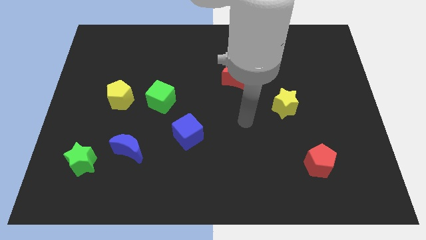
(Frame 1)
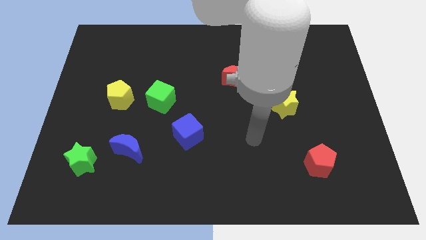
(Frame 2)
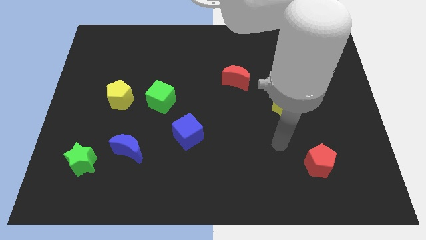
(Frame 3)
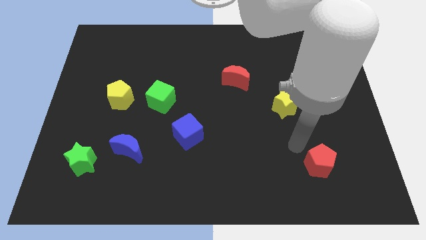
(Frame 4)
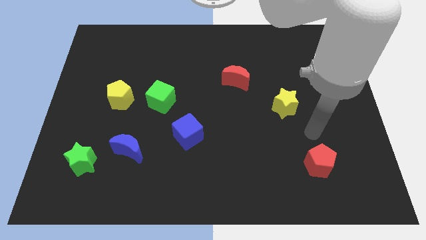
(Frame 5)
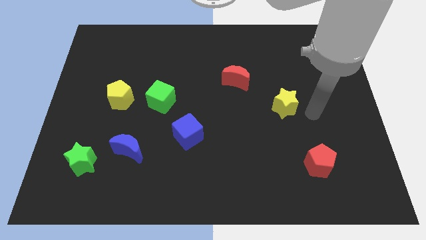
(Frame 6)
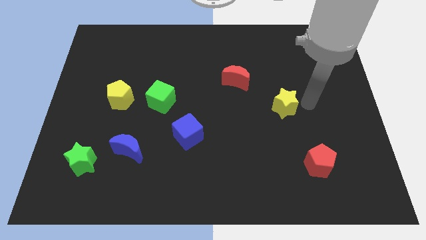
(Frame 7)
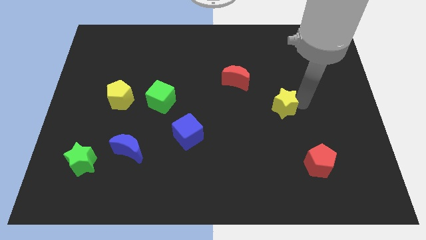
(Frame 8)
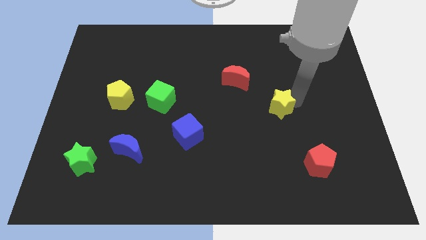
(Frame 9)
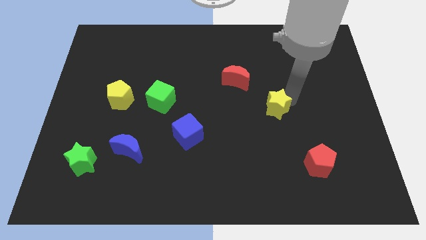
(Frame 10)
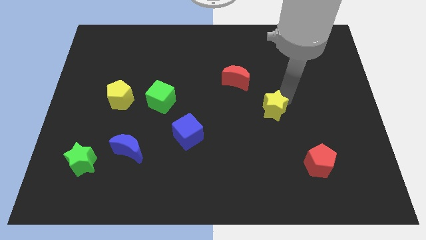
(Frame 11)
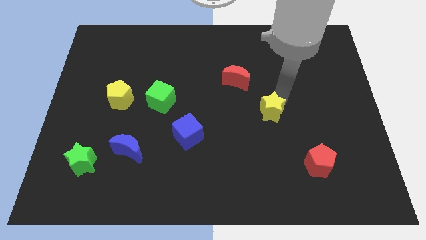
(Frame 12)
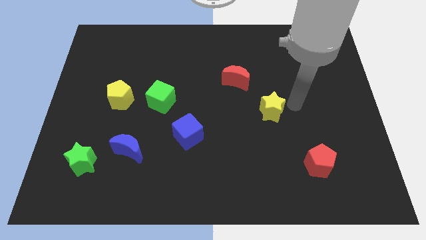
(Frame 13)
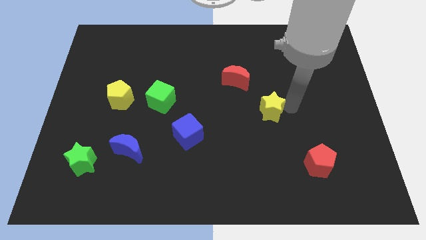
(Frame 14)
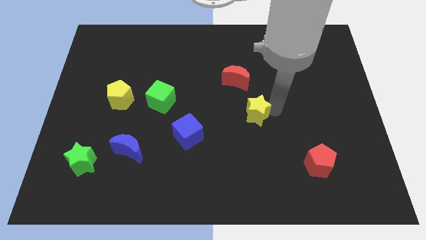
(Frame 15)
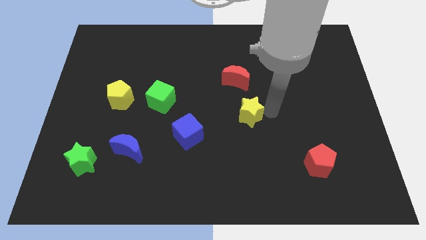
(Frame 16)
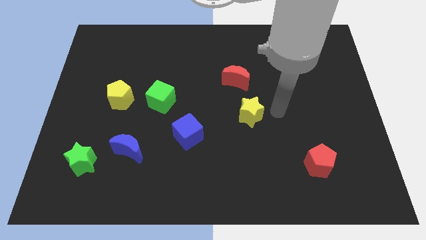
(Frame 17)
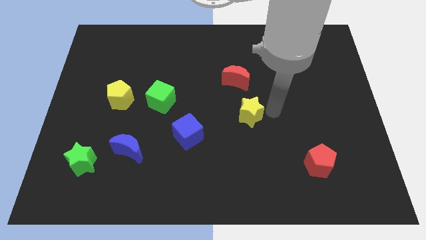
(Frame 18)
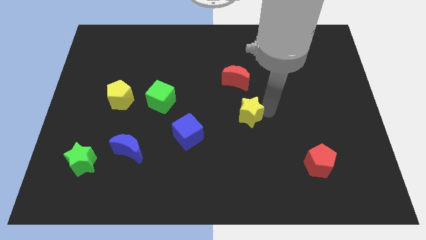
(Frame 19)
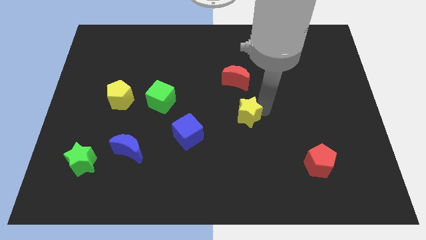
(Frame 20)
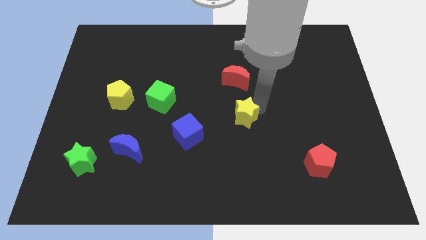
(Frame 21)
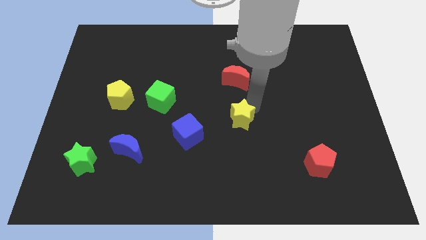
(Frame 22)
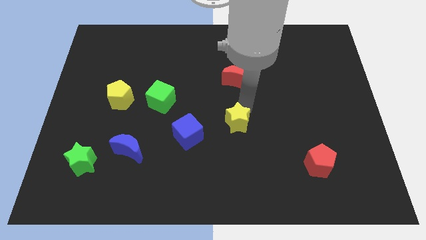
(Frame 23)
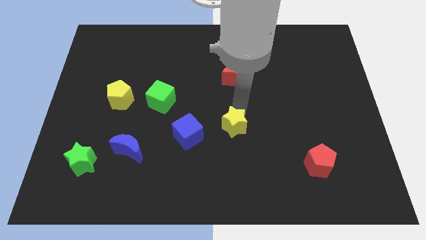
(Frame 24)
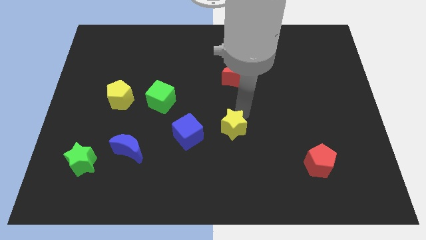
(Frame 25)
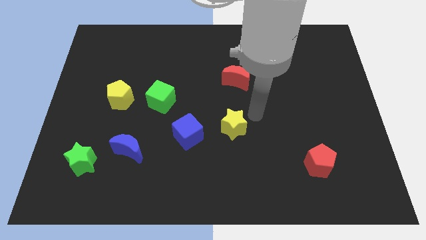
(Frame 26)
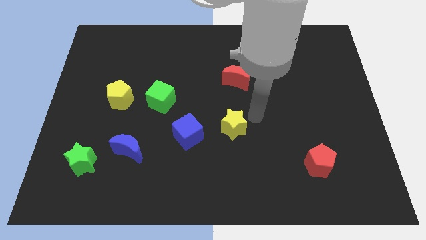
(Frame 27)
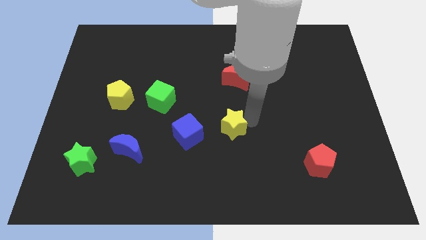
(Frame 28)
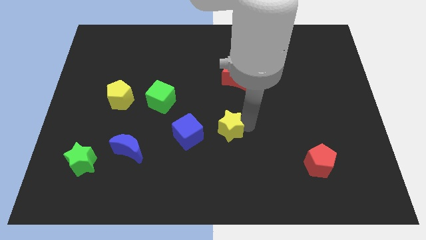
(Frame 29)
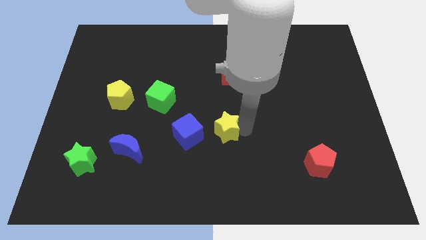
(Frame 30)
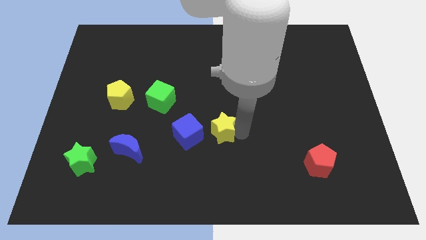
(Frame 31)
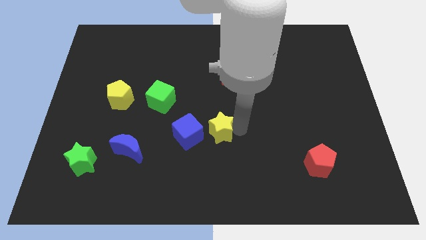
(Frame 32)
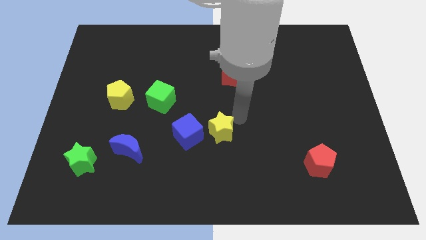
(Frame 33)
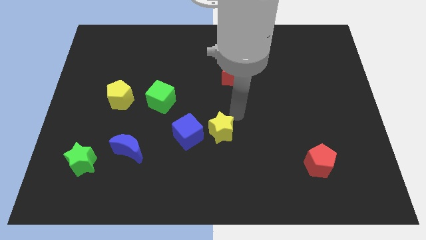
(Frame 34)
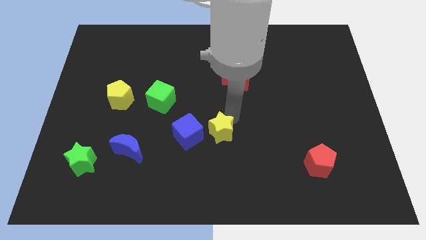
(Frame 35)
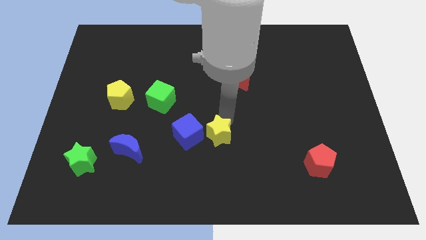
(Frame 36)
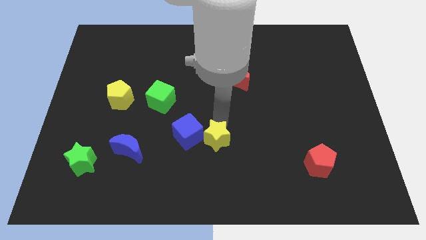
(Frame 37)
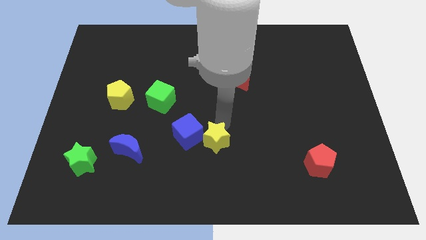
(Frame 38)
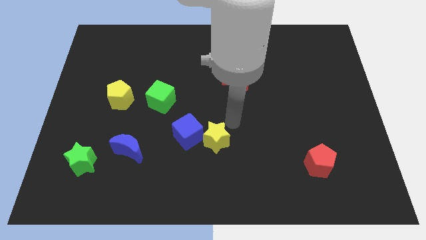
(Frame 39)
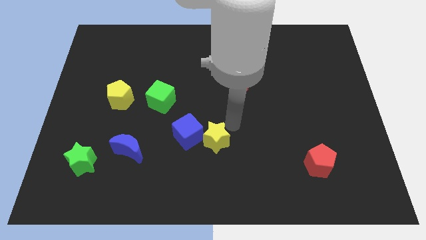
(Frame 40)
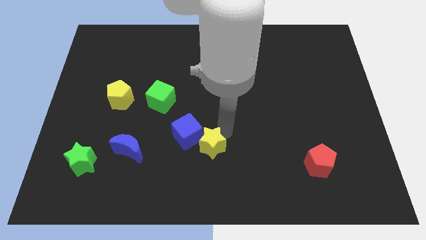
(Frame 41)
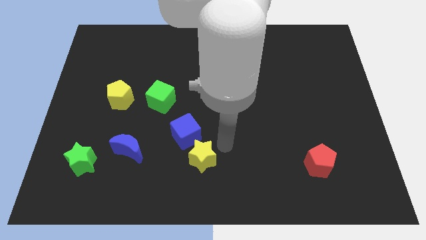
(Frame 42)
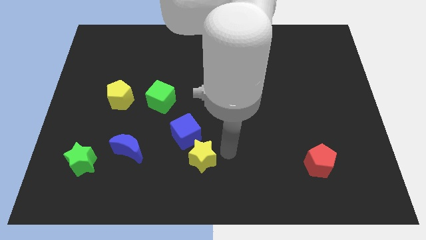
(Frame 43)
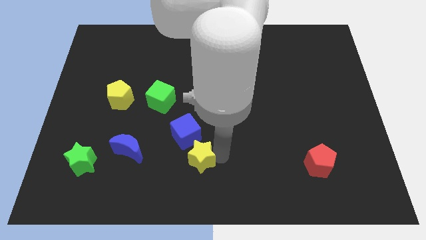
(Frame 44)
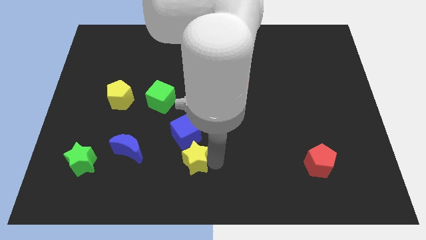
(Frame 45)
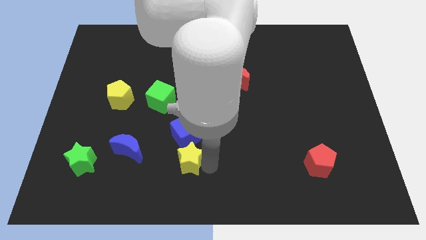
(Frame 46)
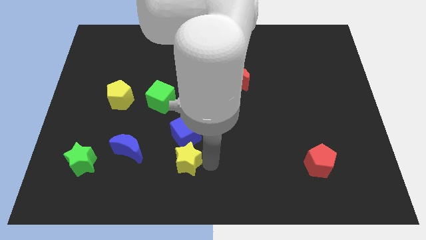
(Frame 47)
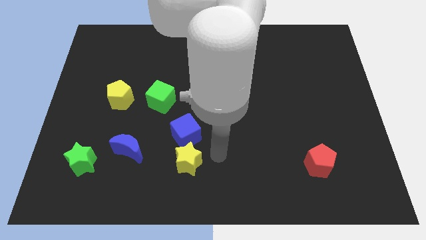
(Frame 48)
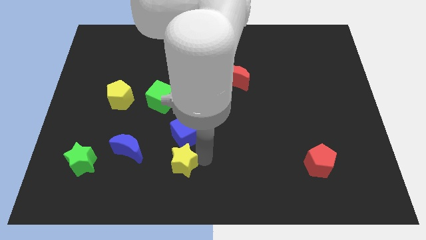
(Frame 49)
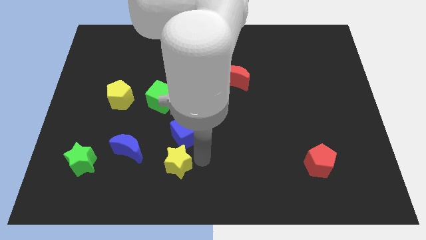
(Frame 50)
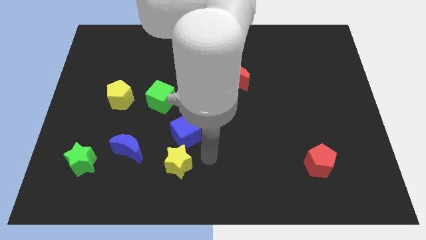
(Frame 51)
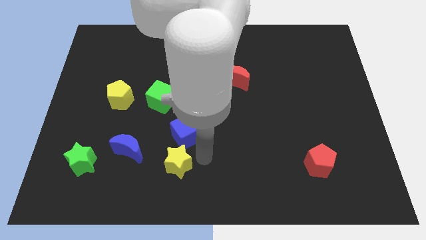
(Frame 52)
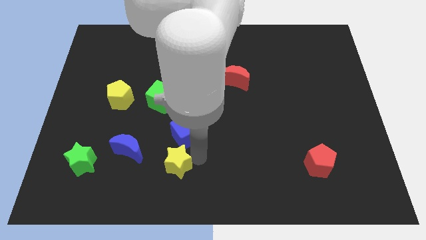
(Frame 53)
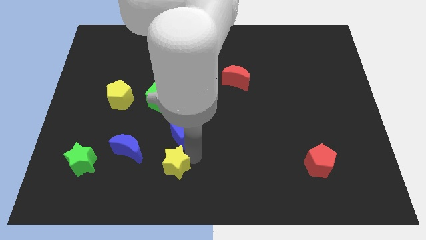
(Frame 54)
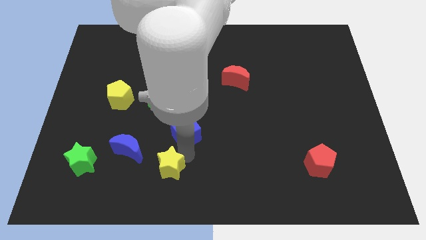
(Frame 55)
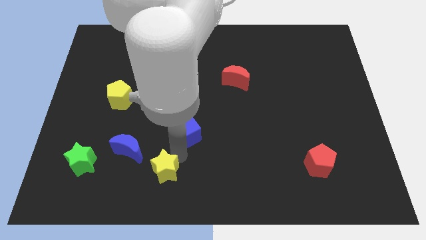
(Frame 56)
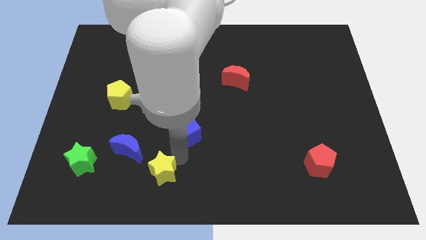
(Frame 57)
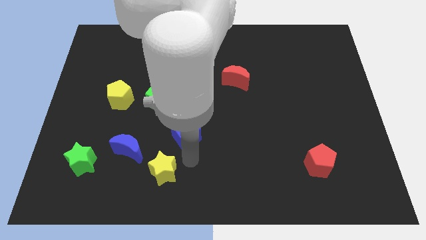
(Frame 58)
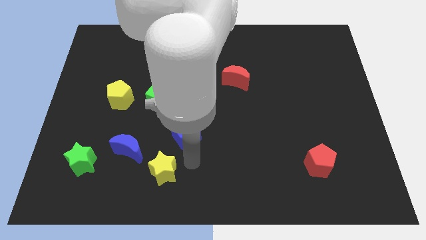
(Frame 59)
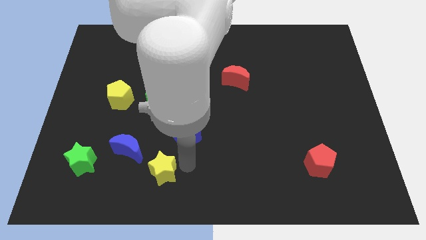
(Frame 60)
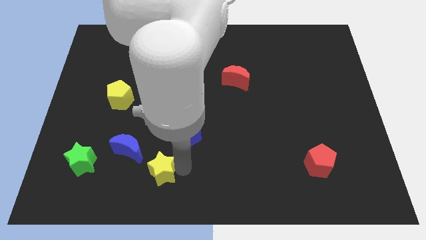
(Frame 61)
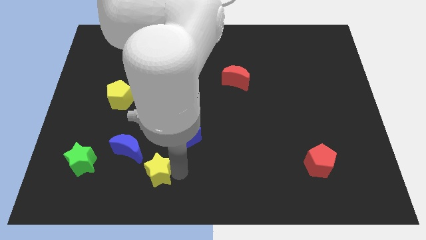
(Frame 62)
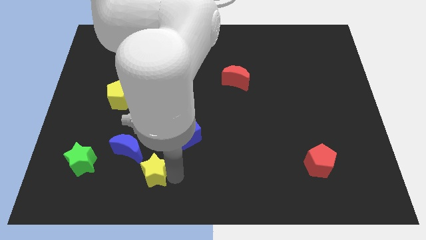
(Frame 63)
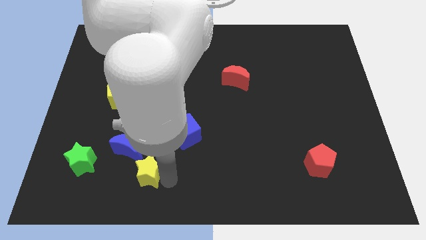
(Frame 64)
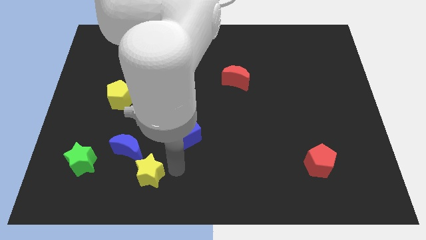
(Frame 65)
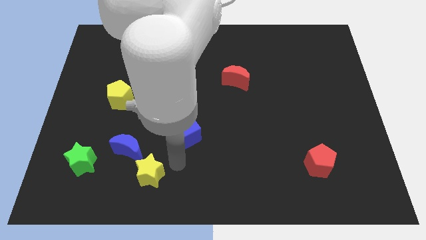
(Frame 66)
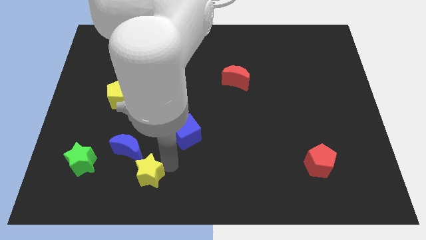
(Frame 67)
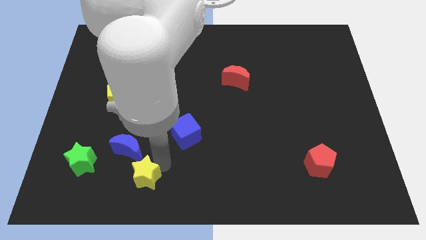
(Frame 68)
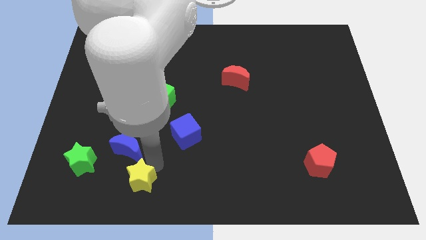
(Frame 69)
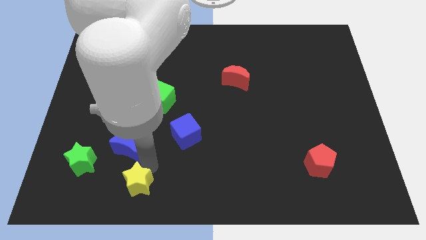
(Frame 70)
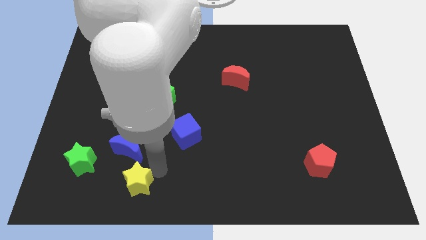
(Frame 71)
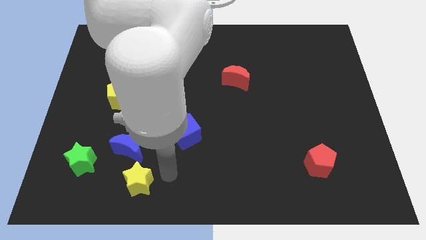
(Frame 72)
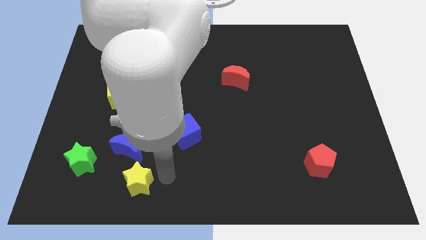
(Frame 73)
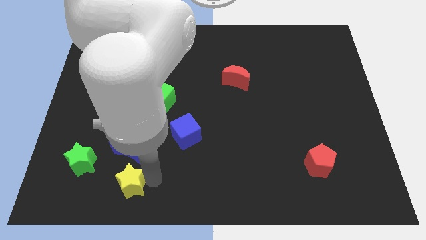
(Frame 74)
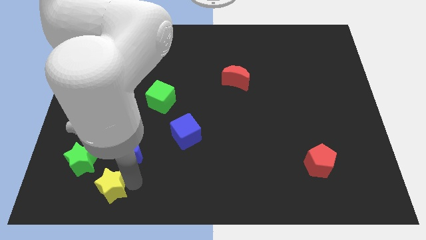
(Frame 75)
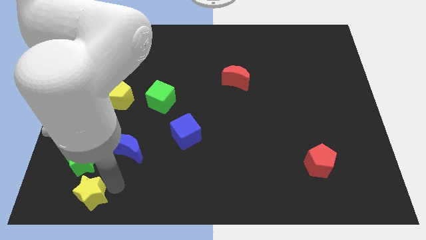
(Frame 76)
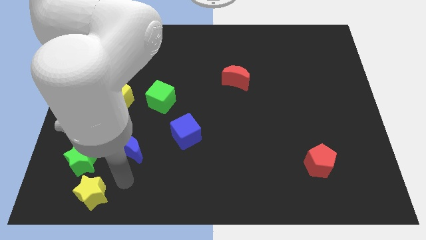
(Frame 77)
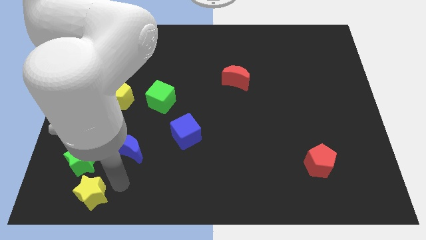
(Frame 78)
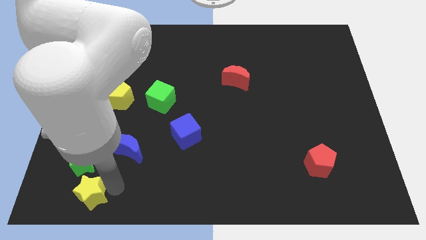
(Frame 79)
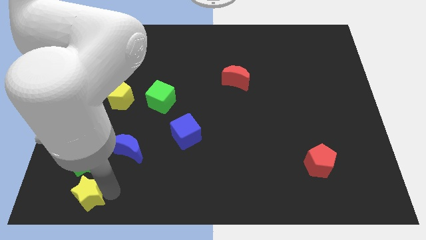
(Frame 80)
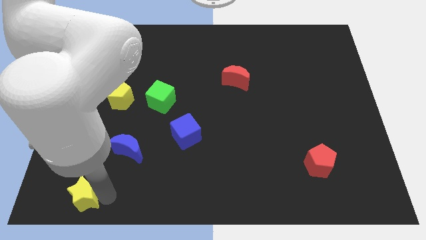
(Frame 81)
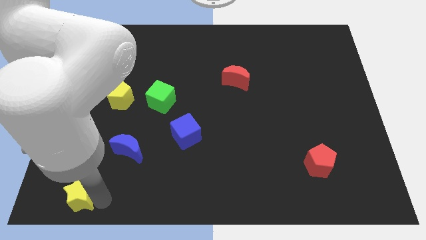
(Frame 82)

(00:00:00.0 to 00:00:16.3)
put the yellow star to the lower left corner
